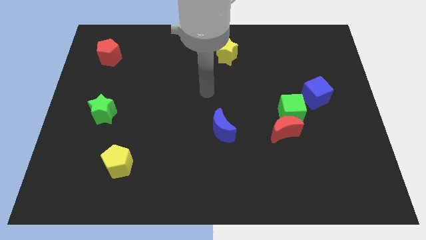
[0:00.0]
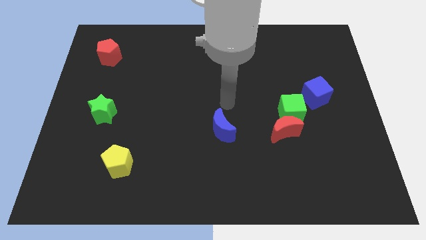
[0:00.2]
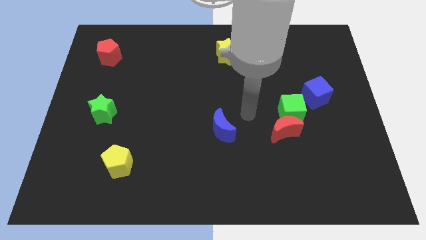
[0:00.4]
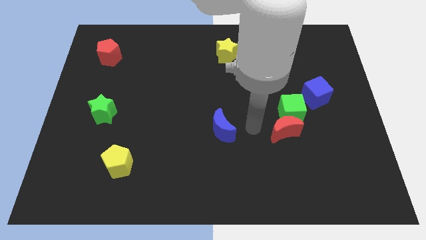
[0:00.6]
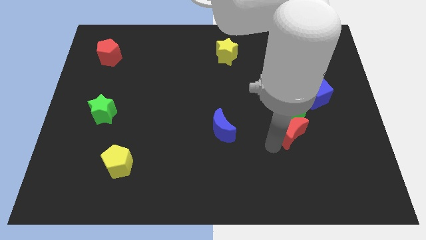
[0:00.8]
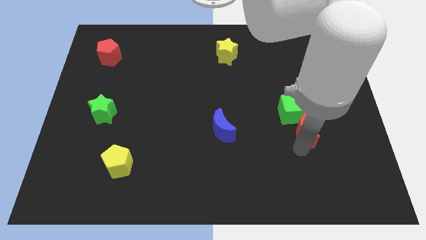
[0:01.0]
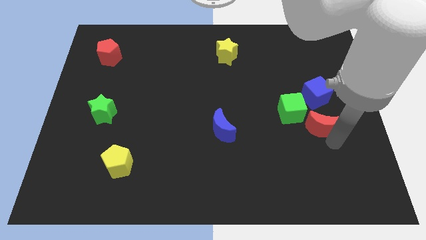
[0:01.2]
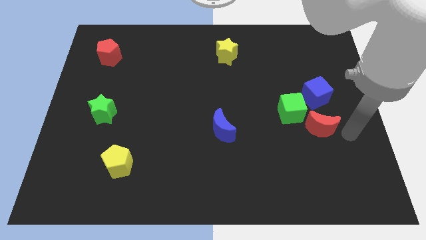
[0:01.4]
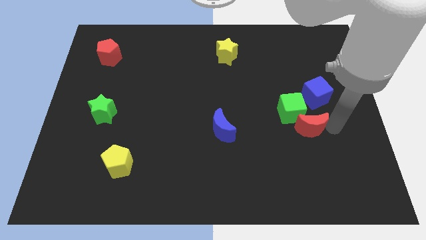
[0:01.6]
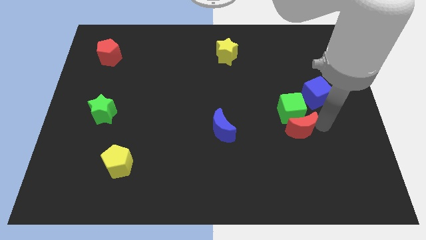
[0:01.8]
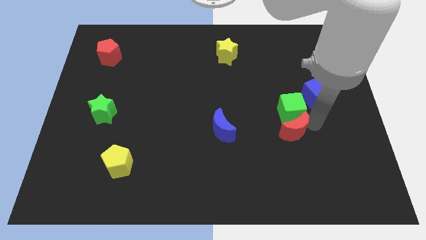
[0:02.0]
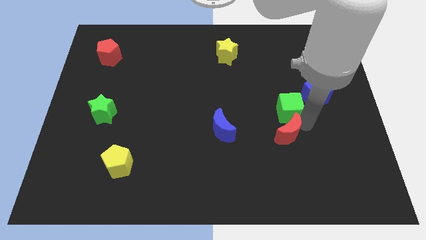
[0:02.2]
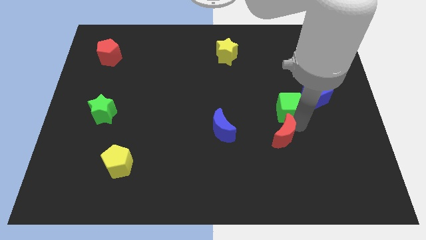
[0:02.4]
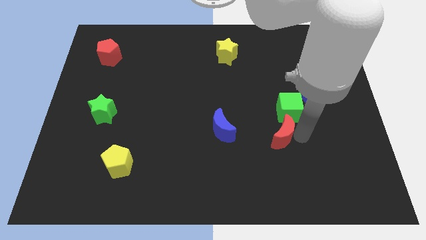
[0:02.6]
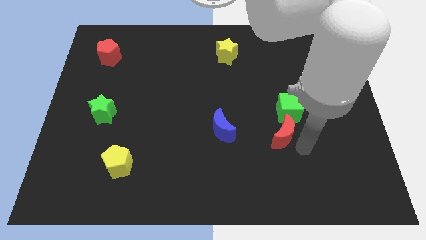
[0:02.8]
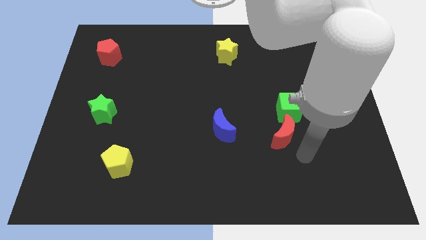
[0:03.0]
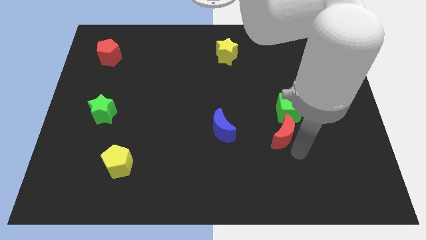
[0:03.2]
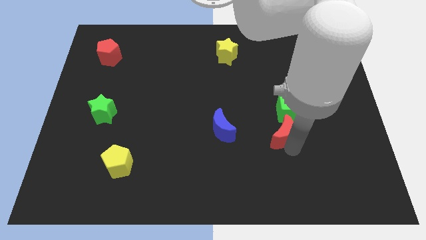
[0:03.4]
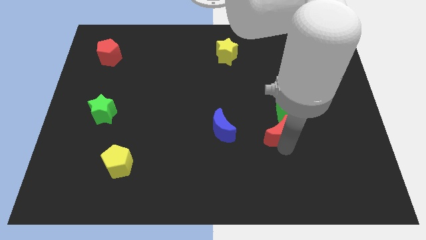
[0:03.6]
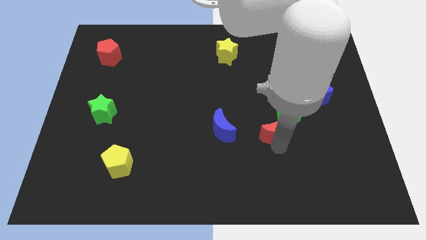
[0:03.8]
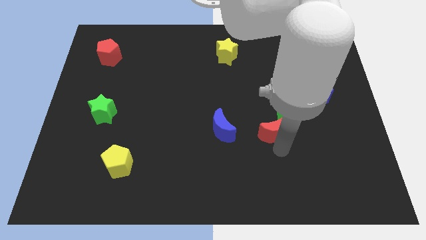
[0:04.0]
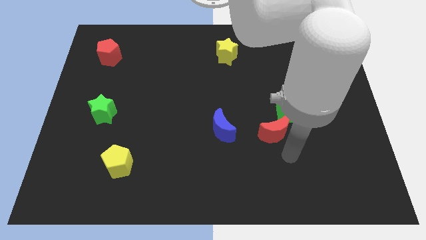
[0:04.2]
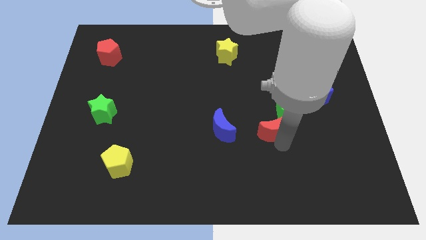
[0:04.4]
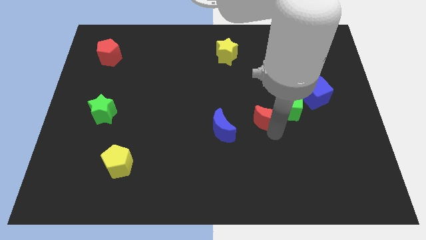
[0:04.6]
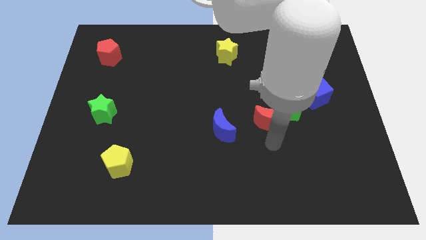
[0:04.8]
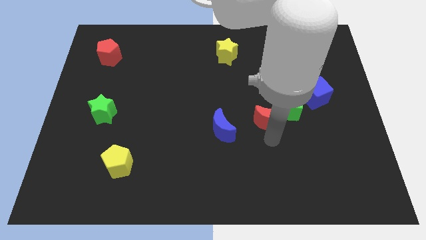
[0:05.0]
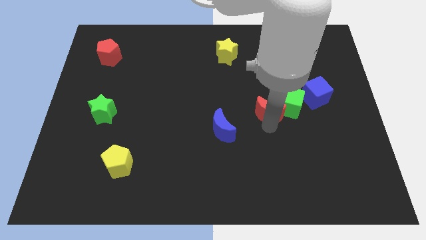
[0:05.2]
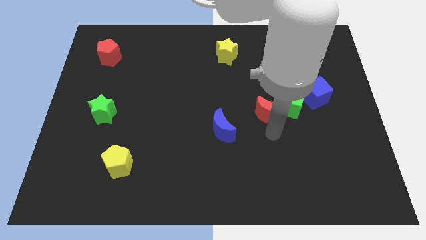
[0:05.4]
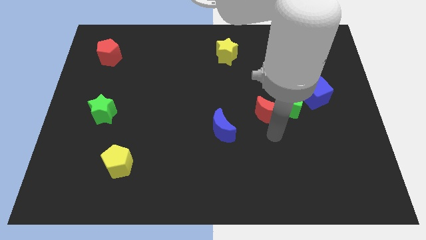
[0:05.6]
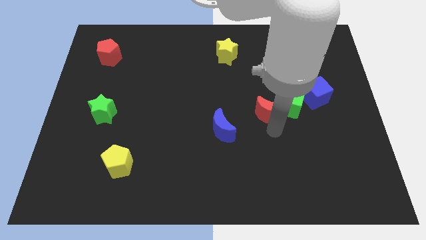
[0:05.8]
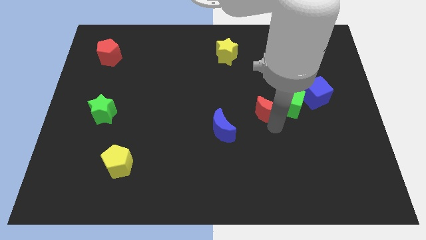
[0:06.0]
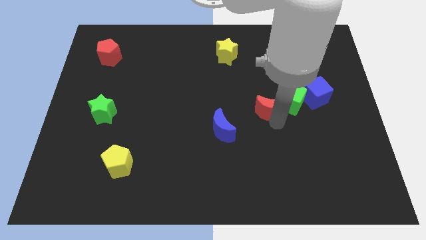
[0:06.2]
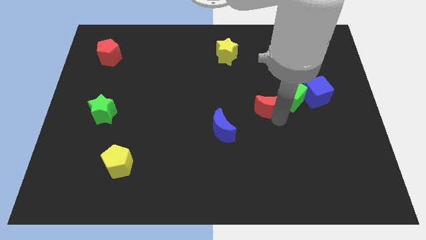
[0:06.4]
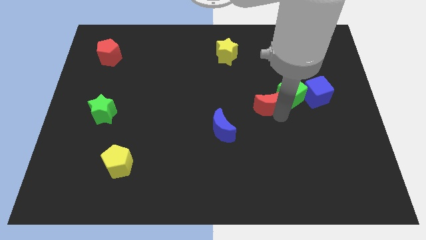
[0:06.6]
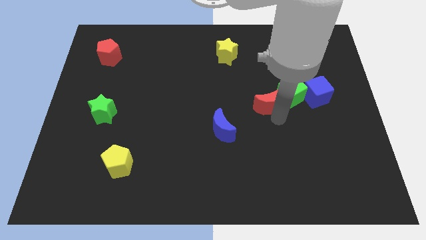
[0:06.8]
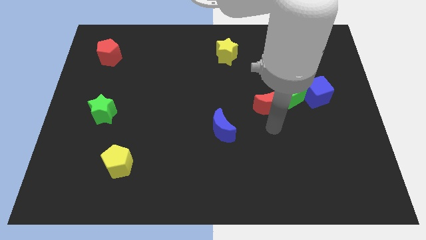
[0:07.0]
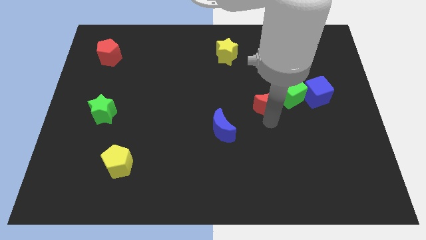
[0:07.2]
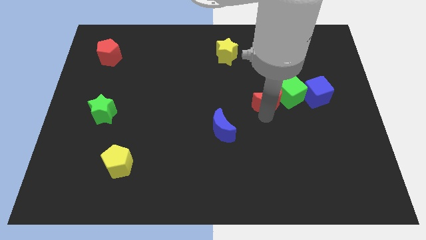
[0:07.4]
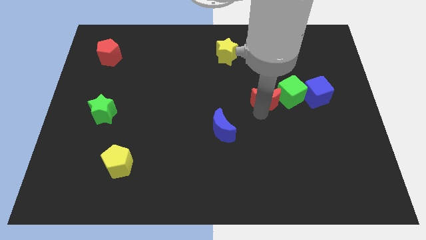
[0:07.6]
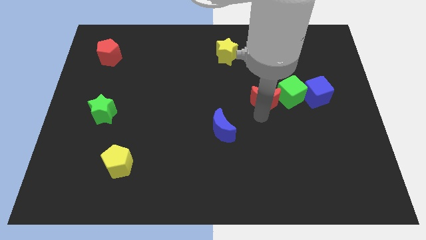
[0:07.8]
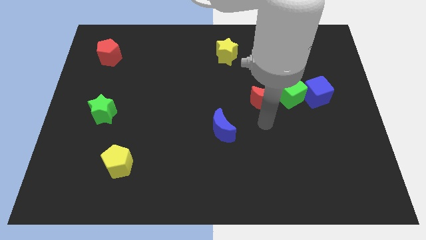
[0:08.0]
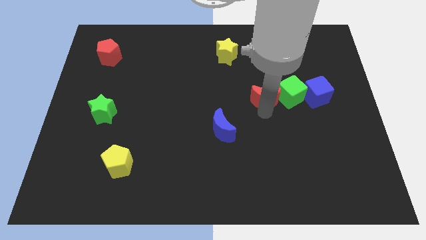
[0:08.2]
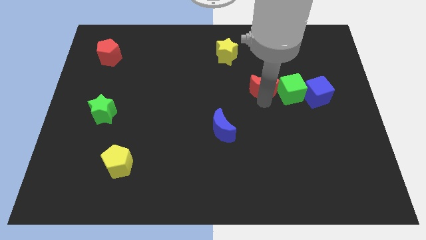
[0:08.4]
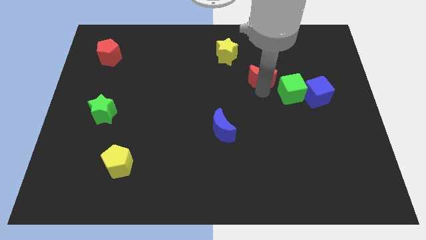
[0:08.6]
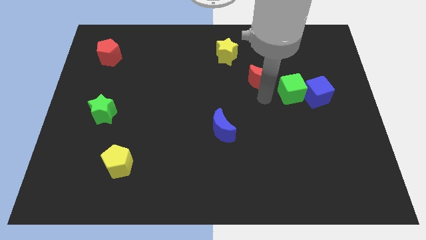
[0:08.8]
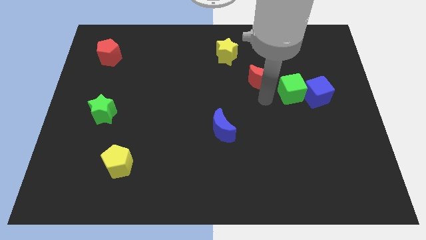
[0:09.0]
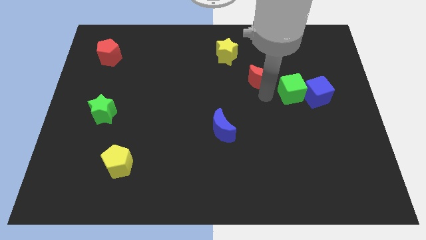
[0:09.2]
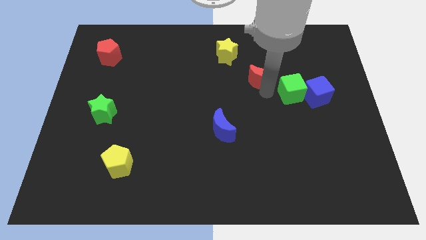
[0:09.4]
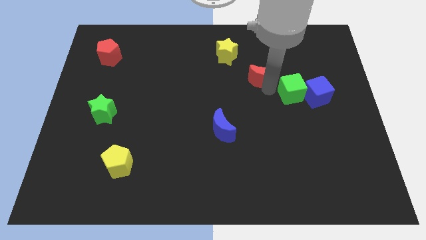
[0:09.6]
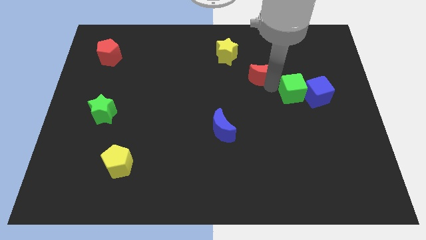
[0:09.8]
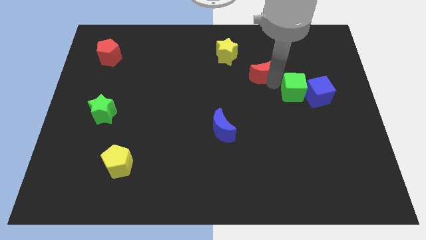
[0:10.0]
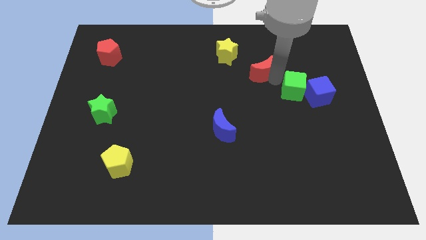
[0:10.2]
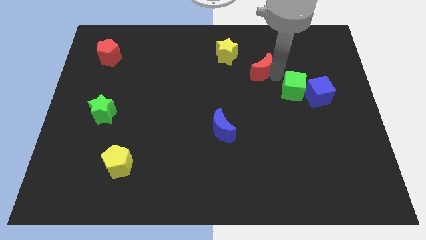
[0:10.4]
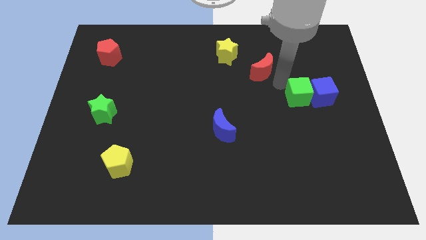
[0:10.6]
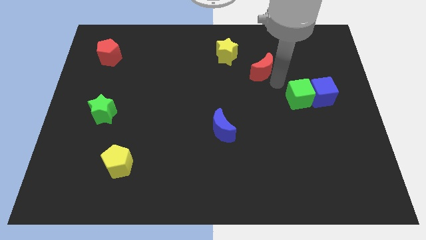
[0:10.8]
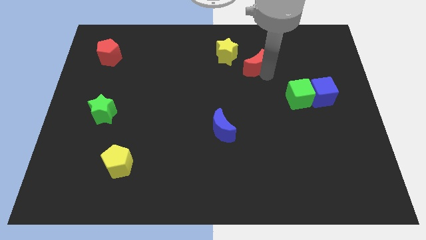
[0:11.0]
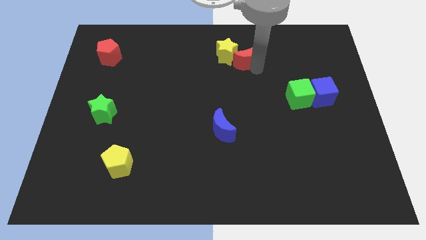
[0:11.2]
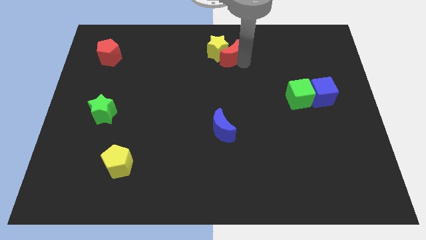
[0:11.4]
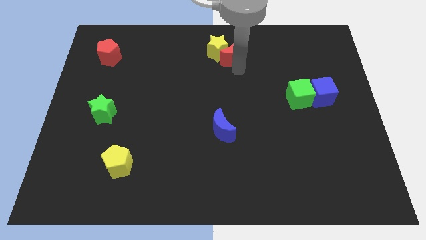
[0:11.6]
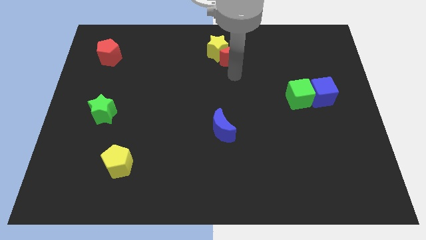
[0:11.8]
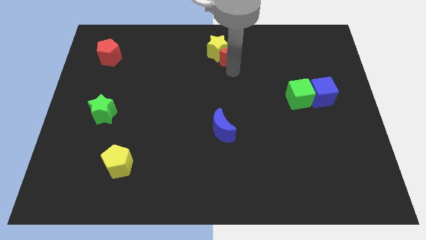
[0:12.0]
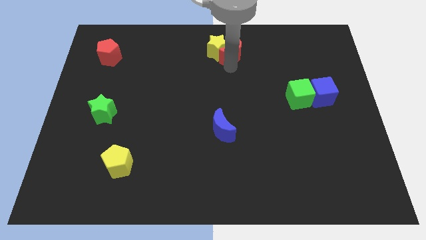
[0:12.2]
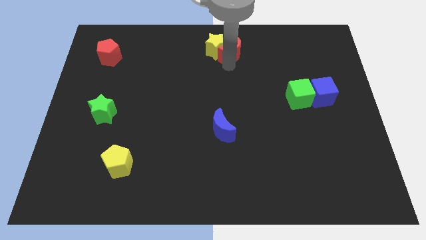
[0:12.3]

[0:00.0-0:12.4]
push the red moon to the top side
